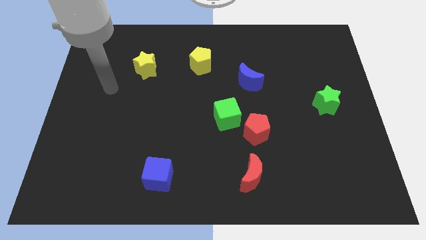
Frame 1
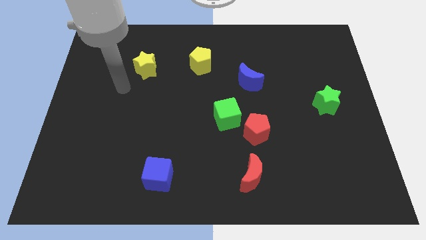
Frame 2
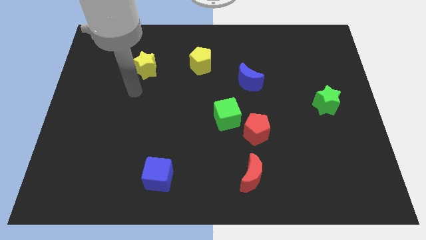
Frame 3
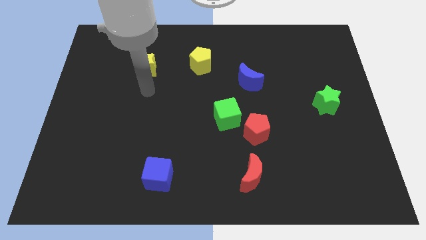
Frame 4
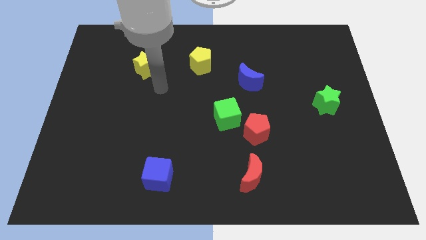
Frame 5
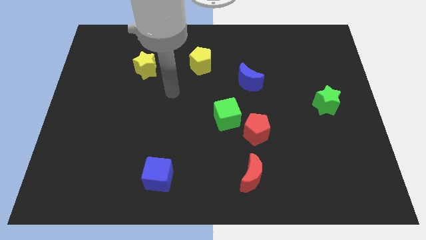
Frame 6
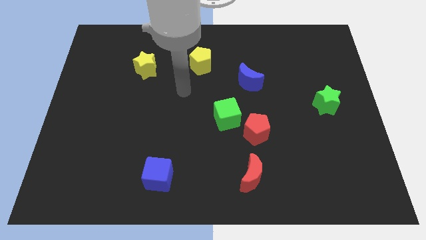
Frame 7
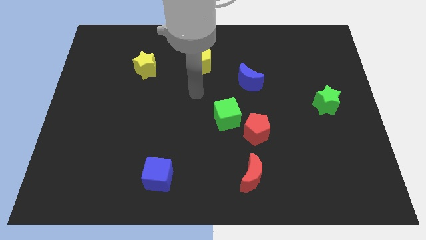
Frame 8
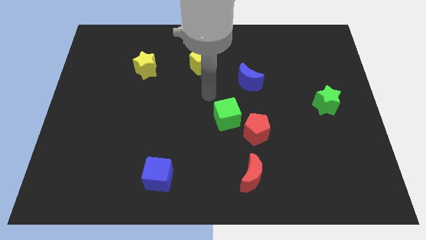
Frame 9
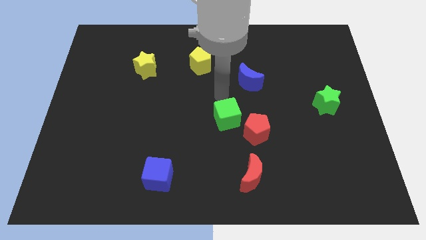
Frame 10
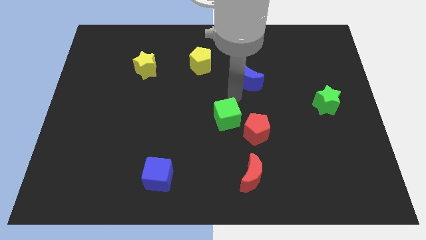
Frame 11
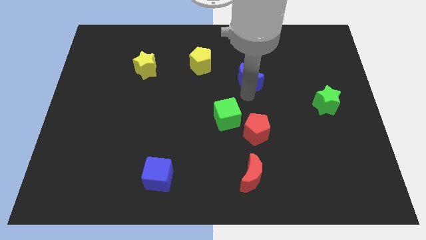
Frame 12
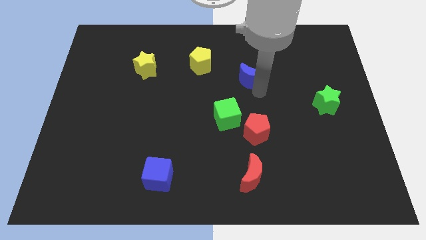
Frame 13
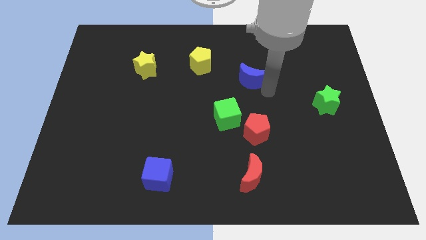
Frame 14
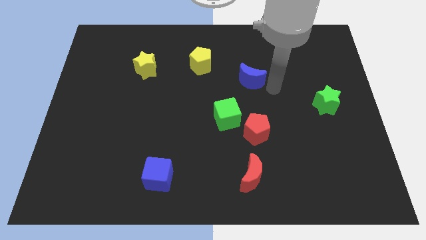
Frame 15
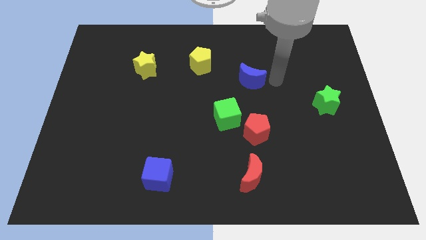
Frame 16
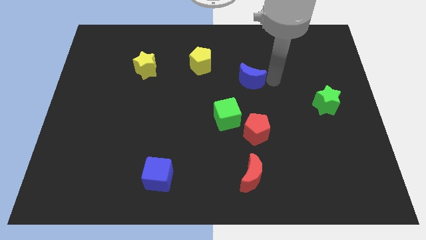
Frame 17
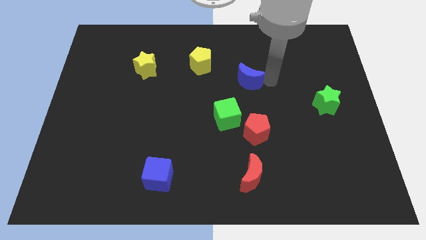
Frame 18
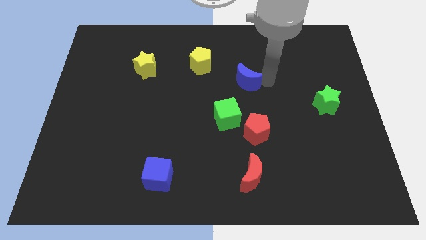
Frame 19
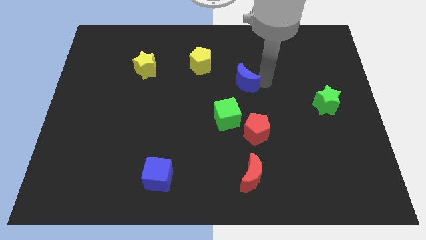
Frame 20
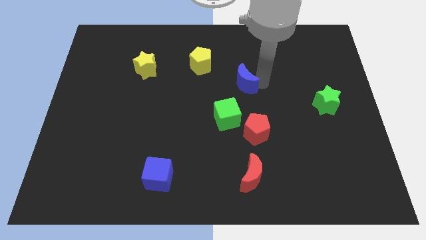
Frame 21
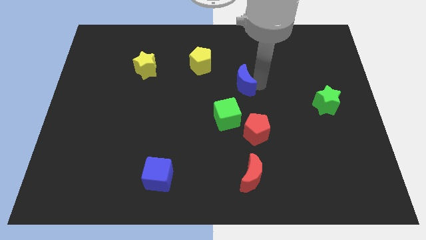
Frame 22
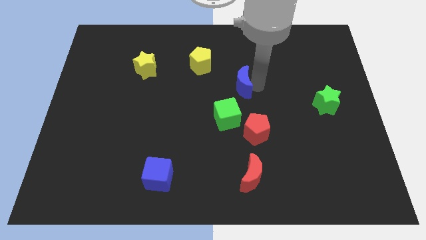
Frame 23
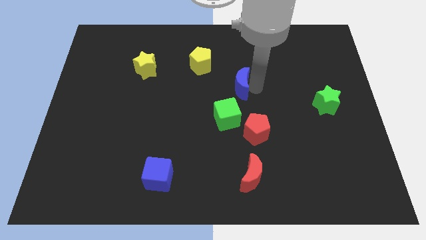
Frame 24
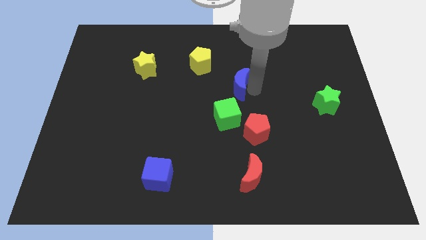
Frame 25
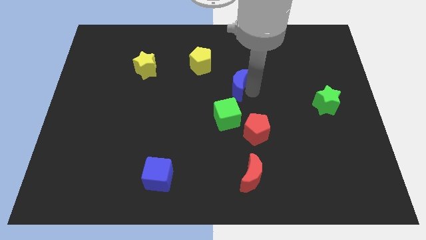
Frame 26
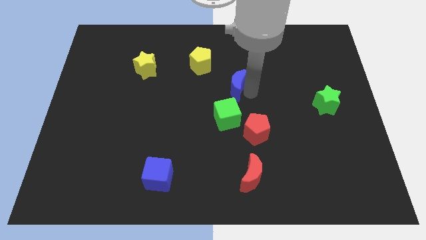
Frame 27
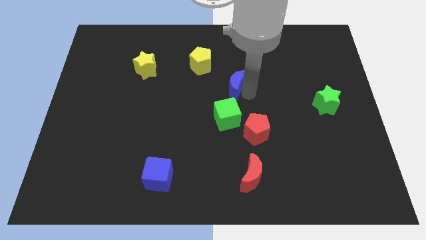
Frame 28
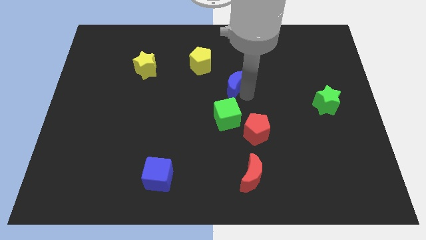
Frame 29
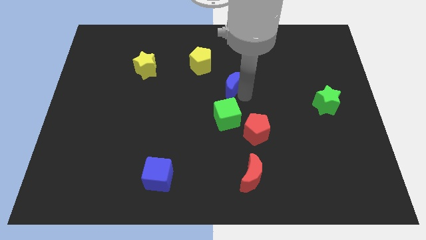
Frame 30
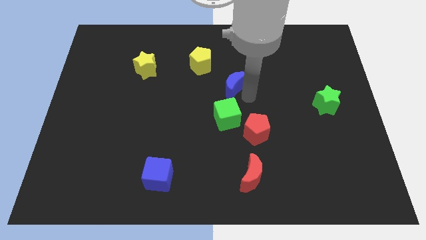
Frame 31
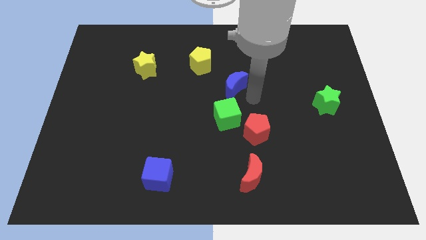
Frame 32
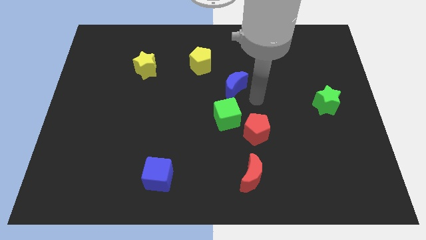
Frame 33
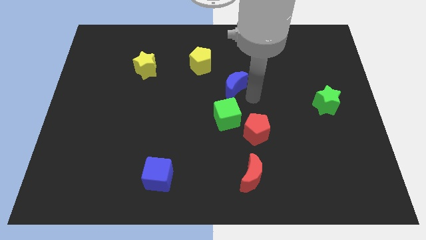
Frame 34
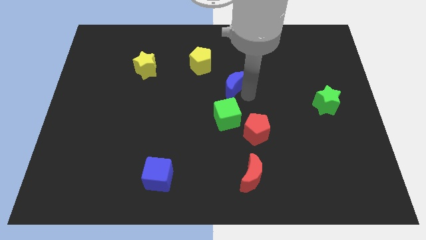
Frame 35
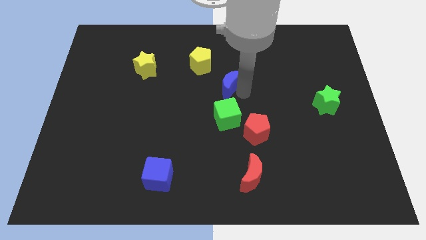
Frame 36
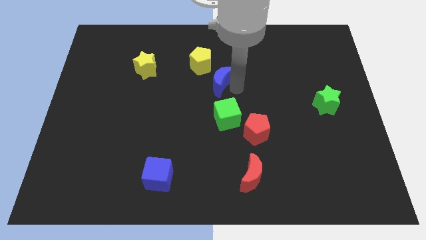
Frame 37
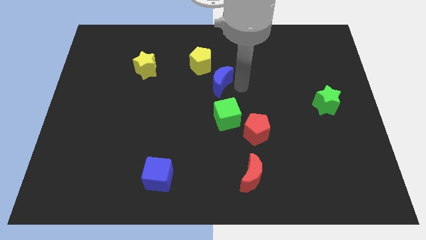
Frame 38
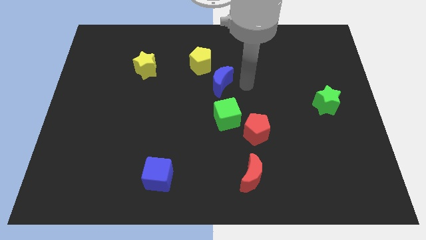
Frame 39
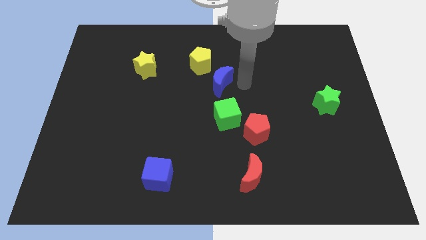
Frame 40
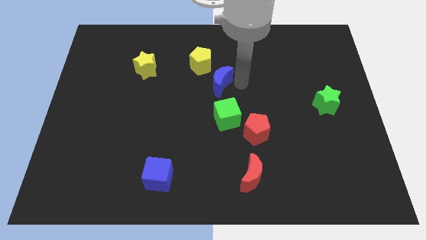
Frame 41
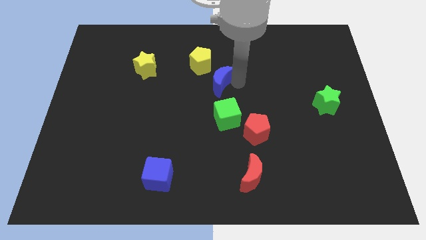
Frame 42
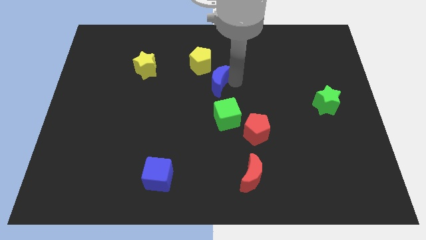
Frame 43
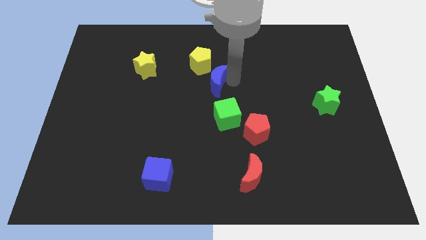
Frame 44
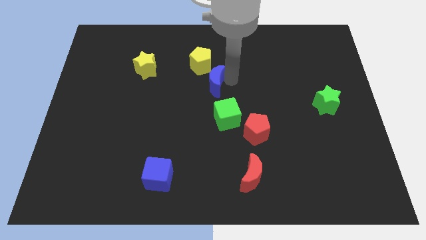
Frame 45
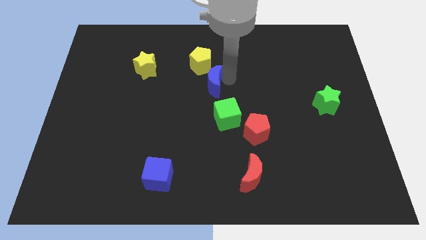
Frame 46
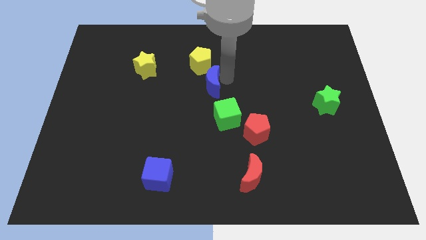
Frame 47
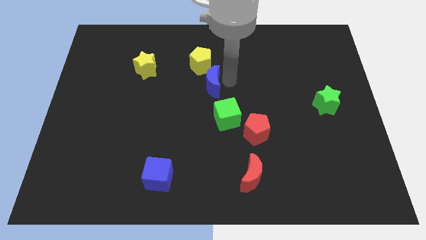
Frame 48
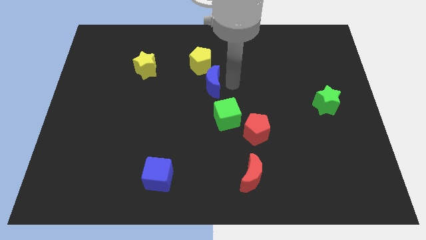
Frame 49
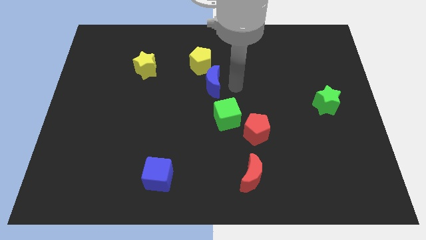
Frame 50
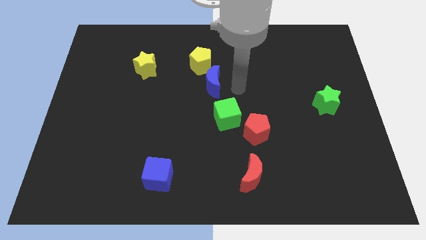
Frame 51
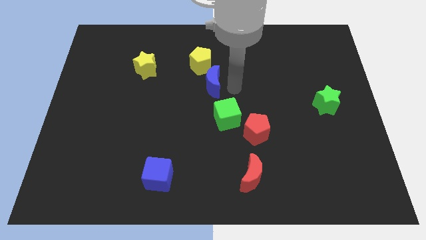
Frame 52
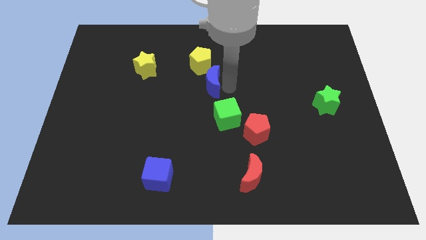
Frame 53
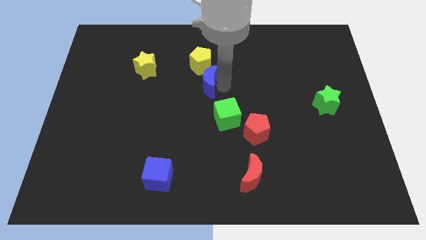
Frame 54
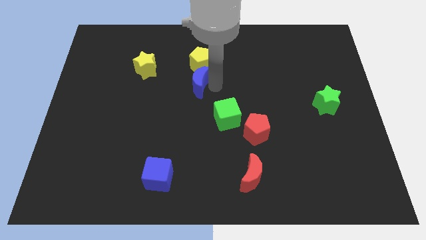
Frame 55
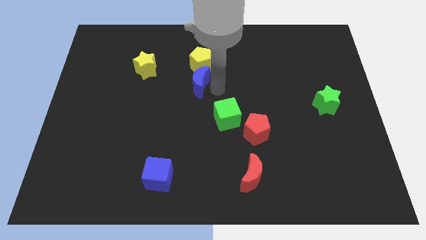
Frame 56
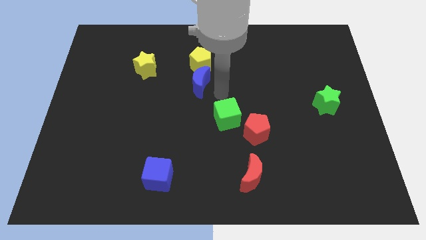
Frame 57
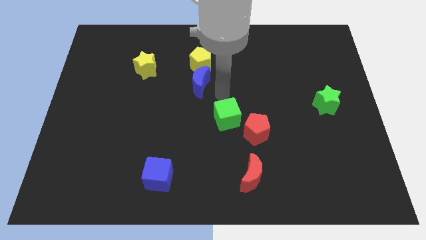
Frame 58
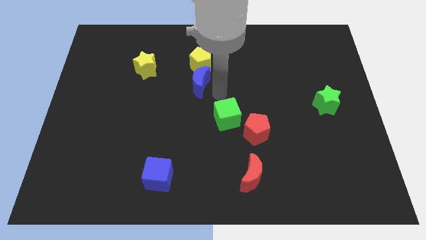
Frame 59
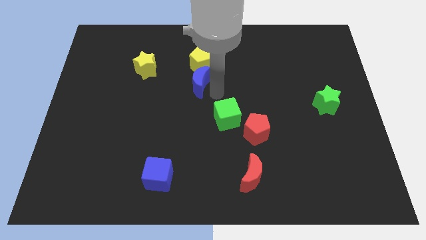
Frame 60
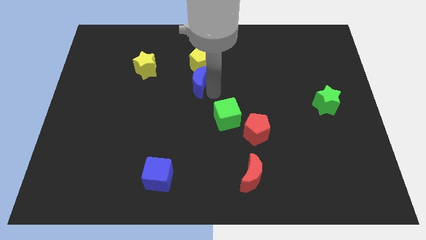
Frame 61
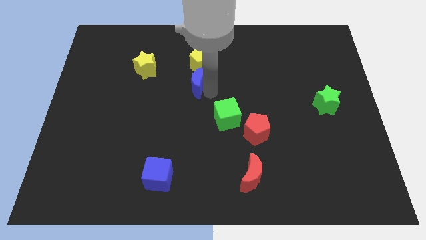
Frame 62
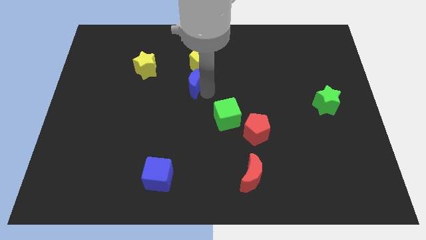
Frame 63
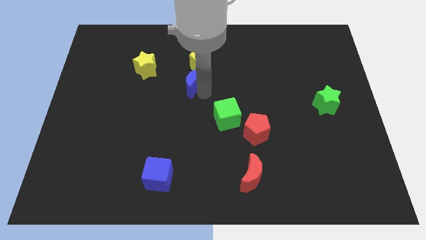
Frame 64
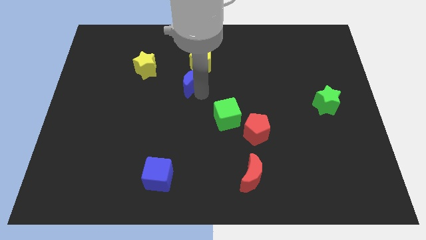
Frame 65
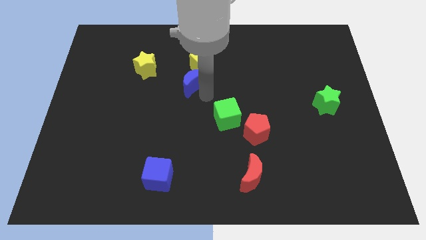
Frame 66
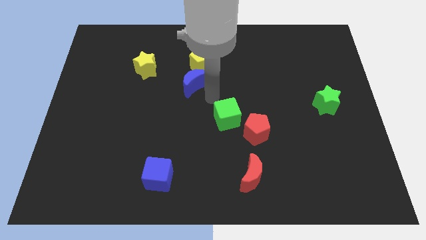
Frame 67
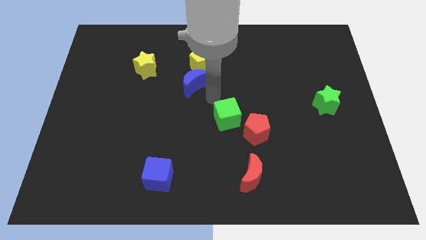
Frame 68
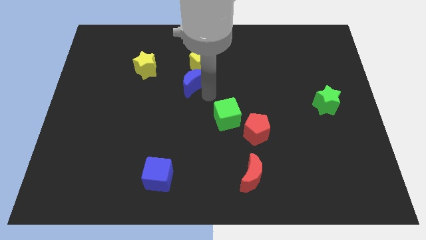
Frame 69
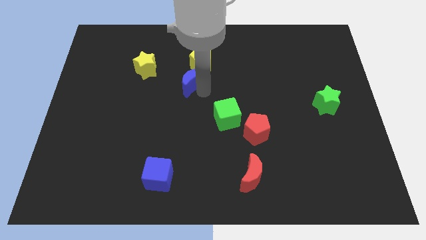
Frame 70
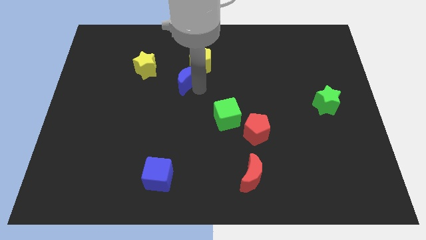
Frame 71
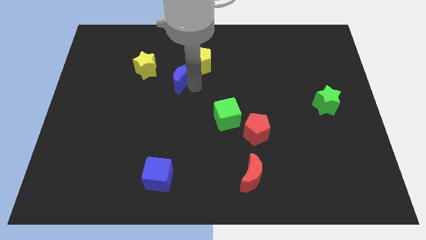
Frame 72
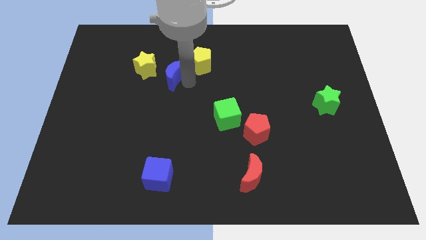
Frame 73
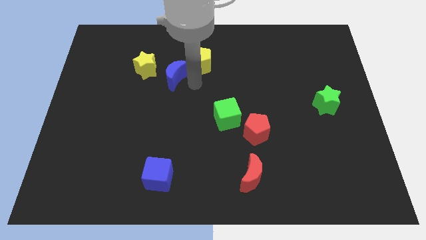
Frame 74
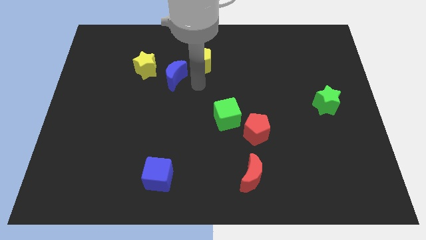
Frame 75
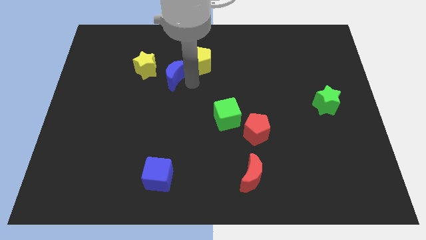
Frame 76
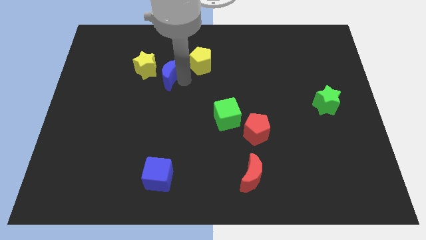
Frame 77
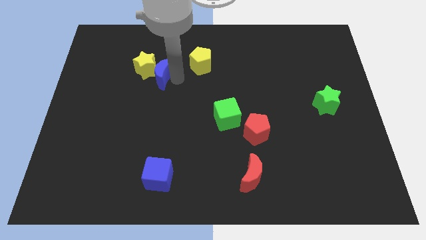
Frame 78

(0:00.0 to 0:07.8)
slide the blue moon next to the yellow star
